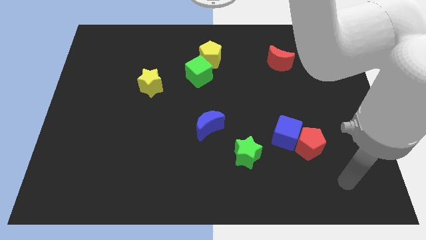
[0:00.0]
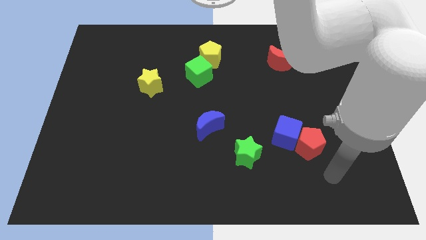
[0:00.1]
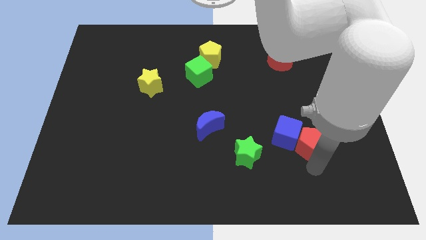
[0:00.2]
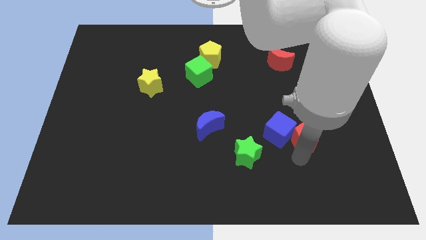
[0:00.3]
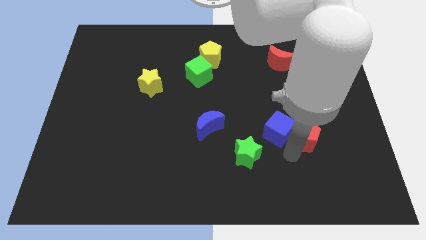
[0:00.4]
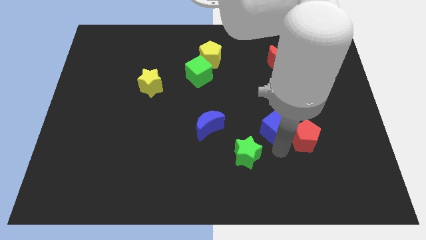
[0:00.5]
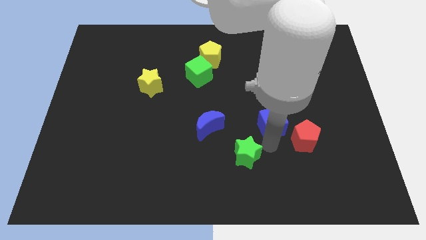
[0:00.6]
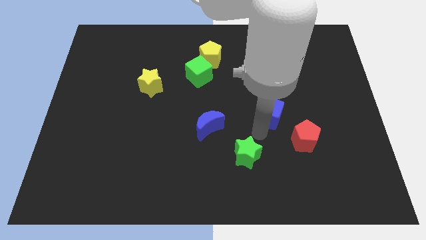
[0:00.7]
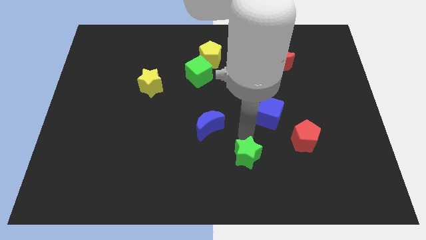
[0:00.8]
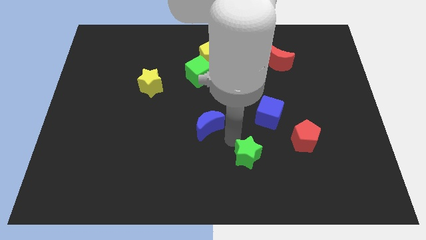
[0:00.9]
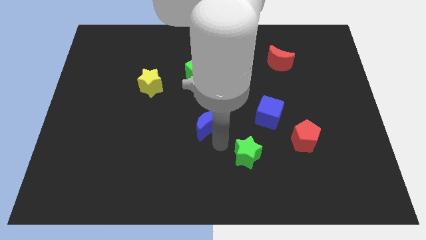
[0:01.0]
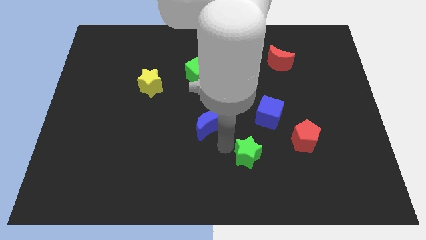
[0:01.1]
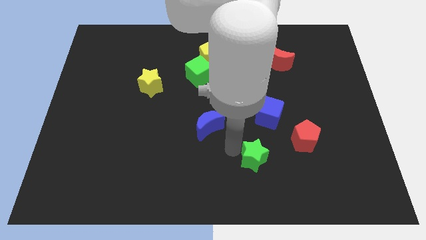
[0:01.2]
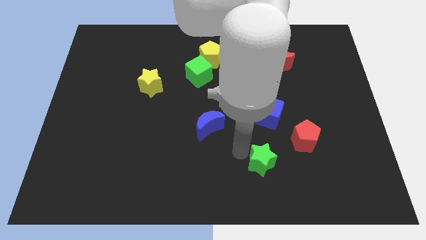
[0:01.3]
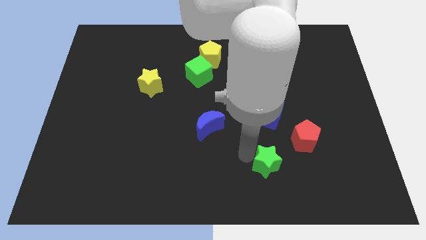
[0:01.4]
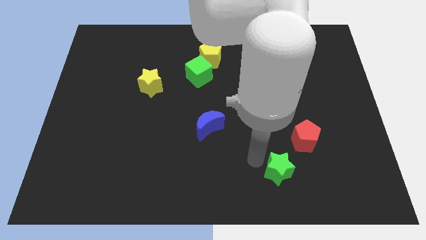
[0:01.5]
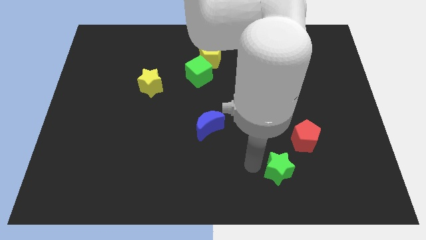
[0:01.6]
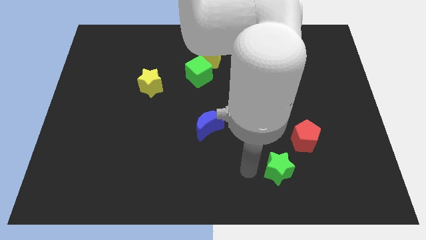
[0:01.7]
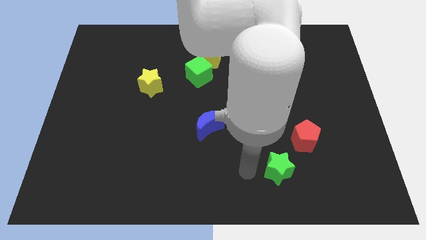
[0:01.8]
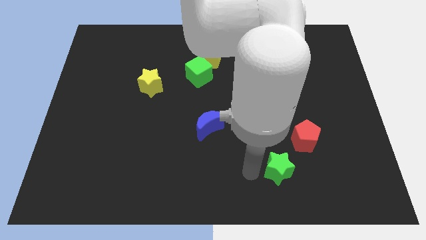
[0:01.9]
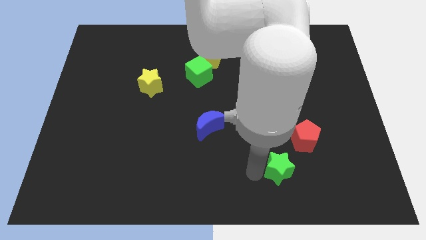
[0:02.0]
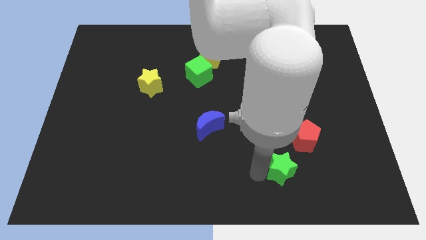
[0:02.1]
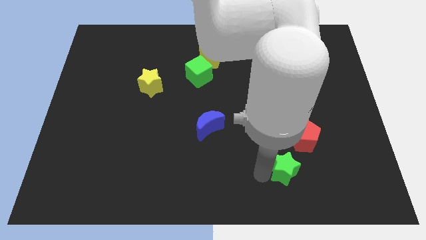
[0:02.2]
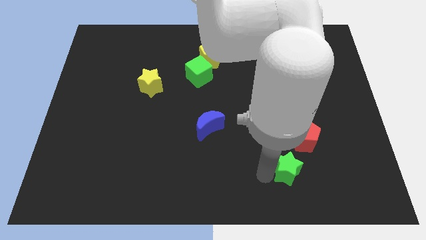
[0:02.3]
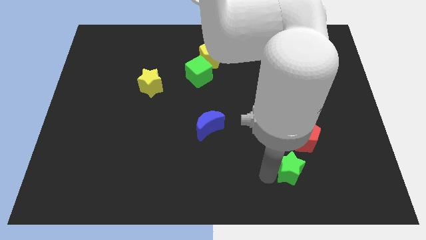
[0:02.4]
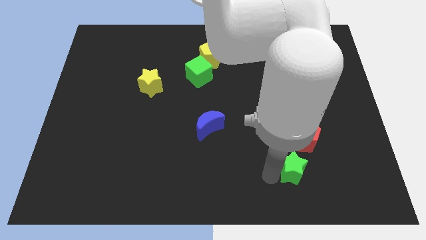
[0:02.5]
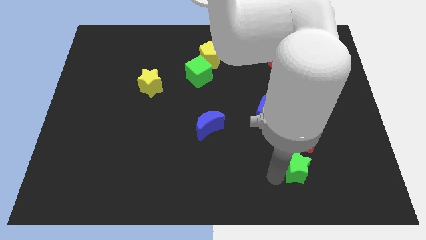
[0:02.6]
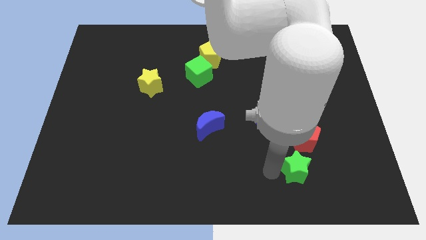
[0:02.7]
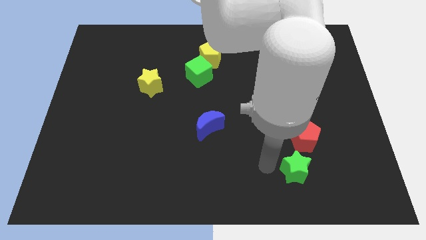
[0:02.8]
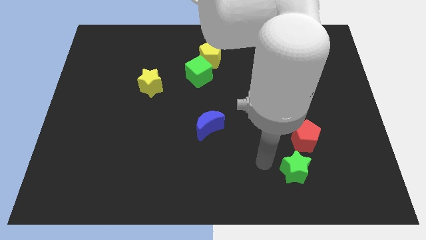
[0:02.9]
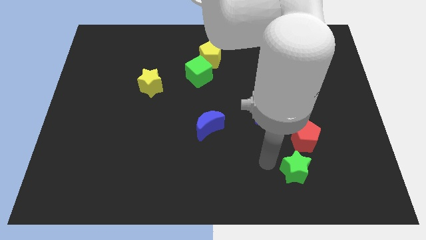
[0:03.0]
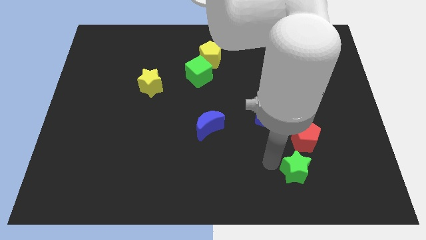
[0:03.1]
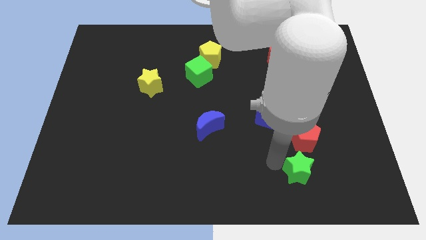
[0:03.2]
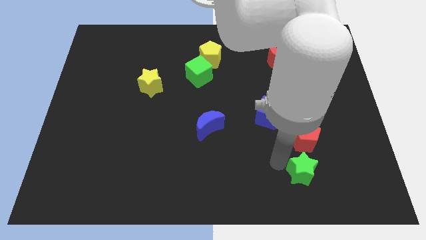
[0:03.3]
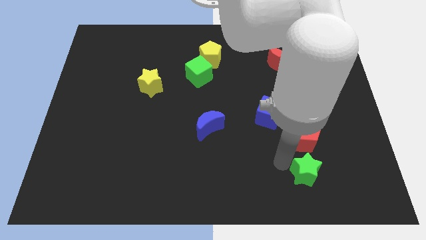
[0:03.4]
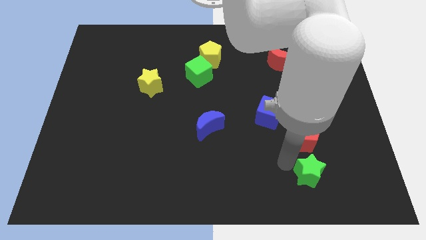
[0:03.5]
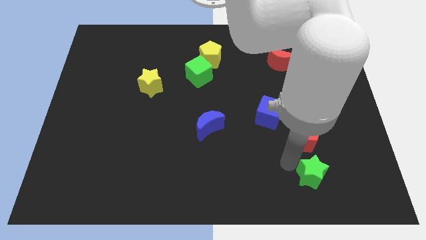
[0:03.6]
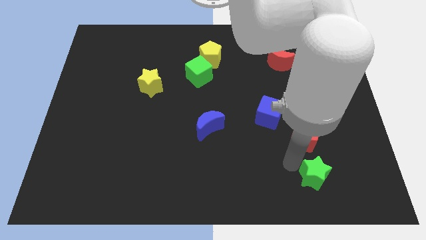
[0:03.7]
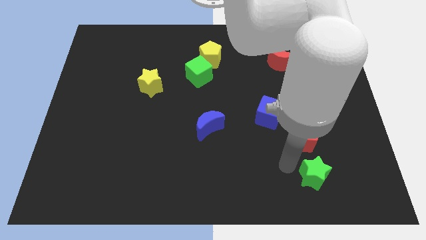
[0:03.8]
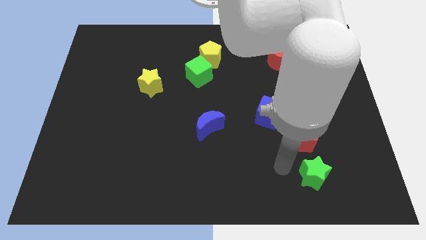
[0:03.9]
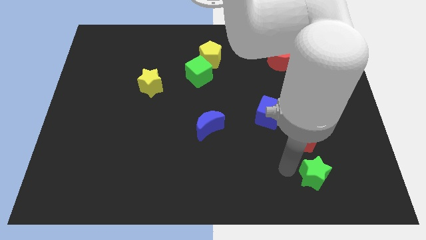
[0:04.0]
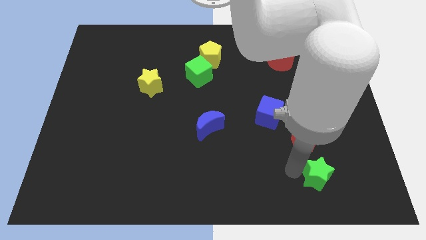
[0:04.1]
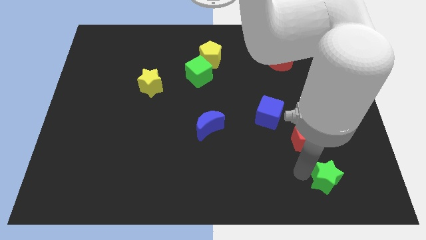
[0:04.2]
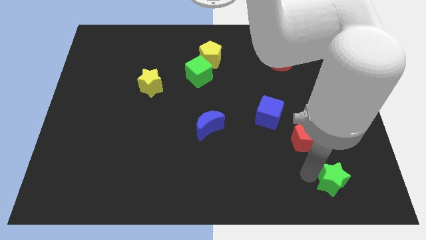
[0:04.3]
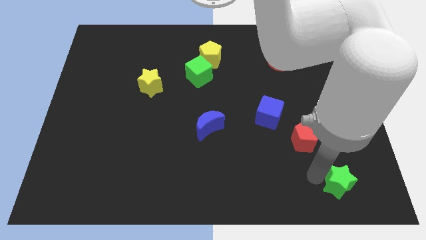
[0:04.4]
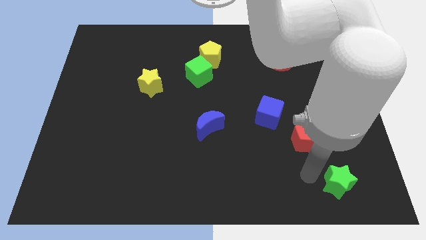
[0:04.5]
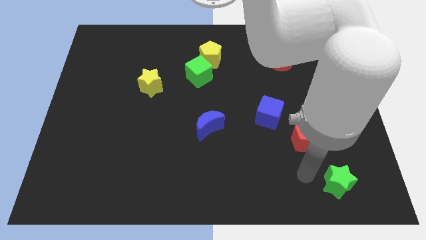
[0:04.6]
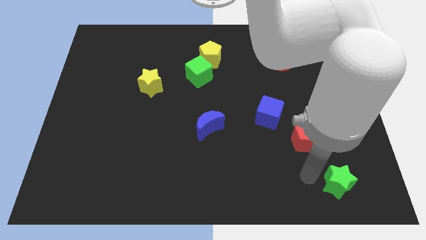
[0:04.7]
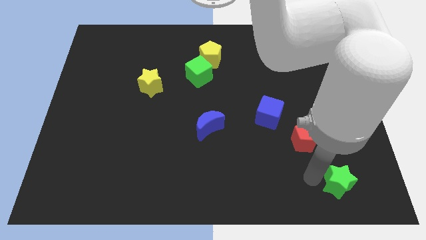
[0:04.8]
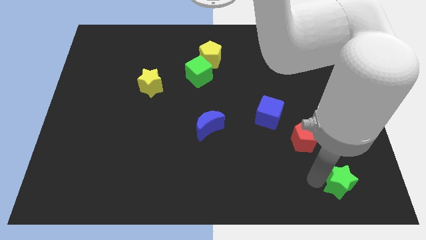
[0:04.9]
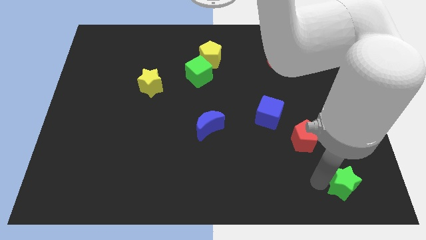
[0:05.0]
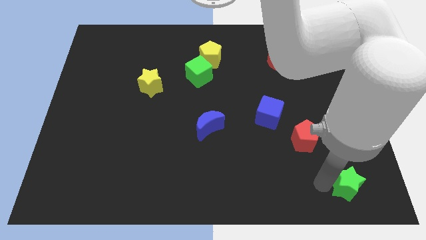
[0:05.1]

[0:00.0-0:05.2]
move the green star to the lower right corner

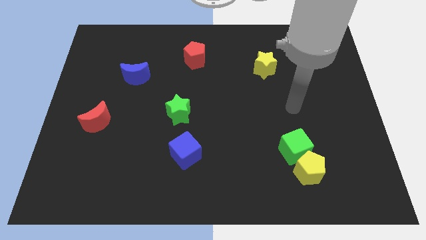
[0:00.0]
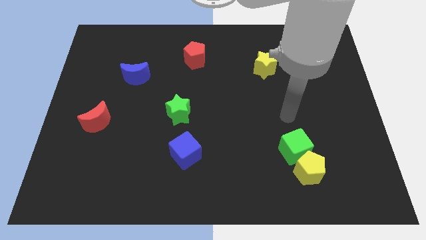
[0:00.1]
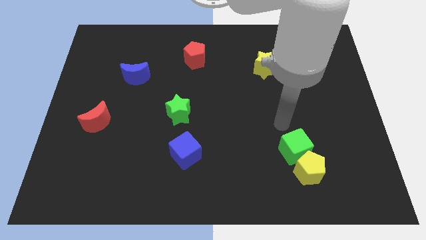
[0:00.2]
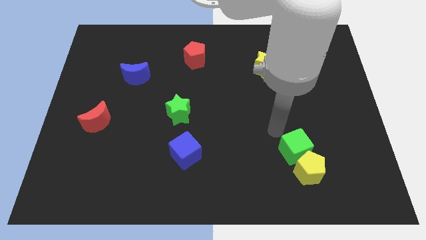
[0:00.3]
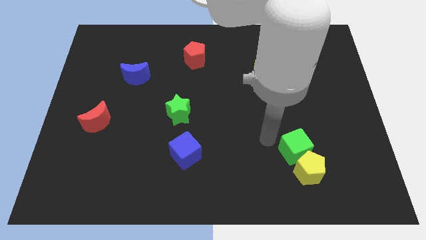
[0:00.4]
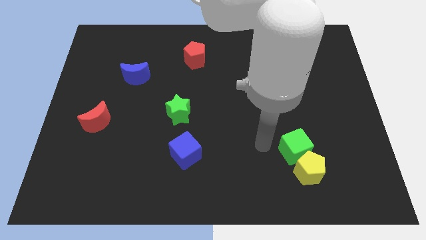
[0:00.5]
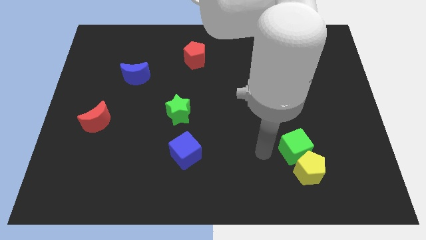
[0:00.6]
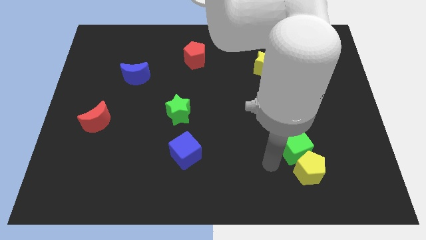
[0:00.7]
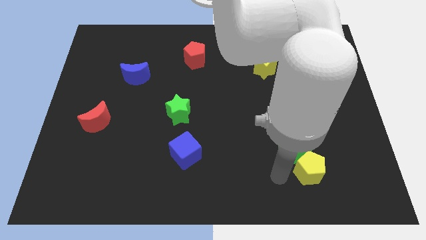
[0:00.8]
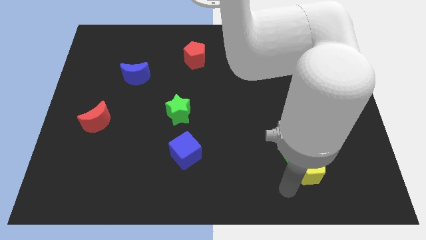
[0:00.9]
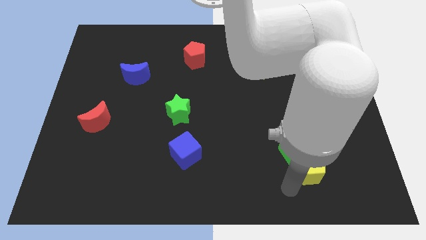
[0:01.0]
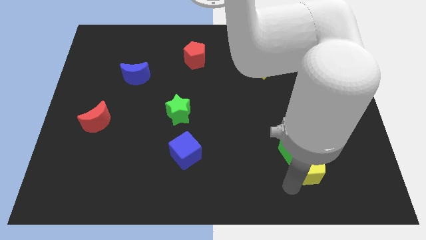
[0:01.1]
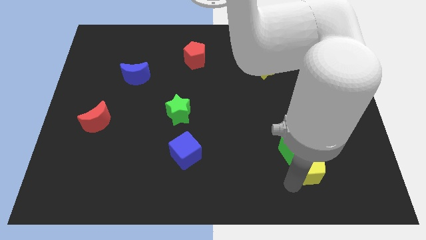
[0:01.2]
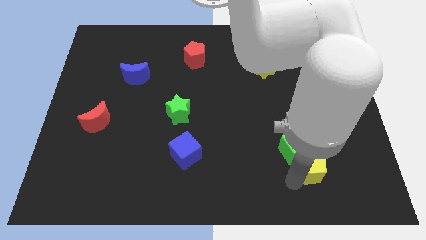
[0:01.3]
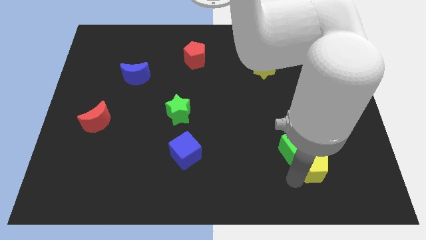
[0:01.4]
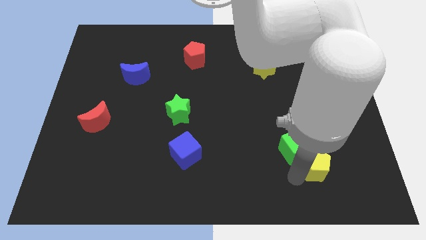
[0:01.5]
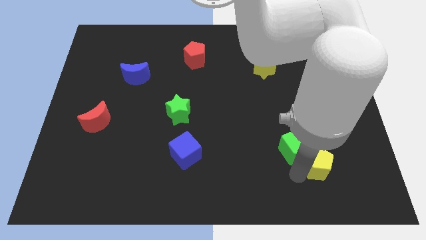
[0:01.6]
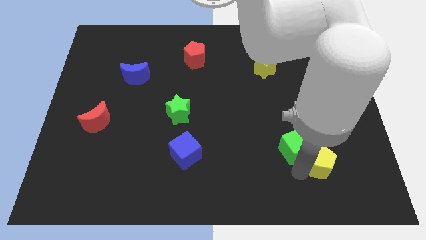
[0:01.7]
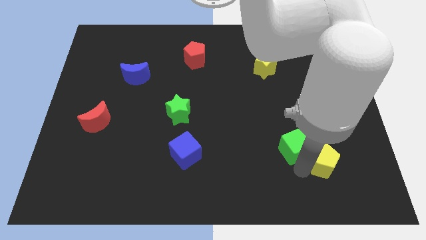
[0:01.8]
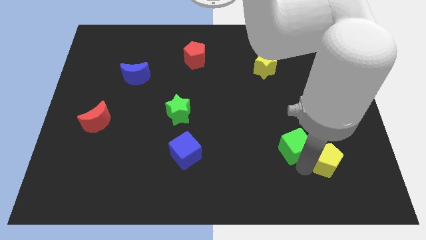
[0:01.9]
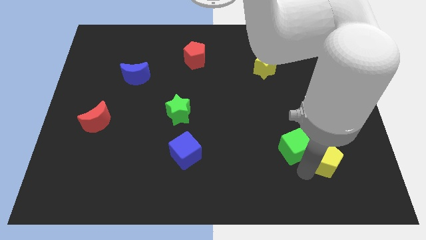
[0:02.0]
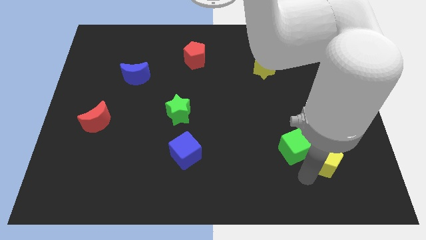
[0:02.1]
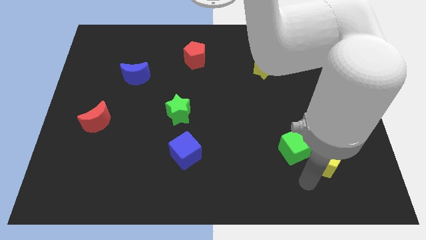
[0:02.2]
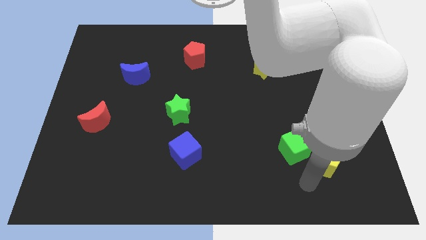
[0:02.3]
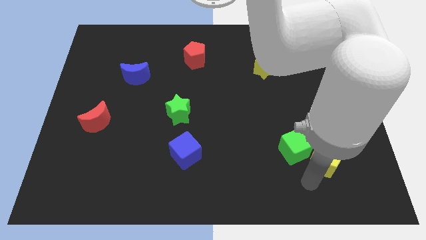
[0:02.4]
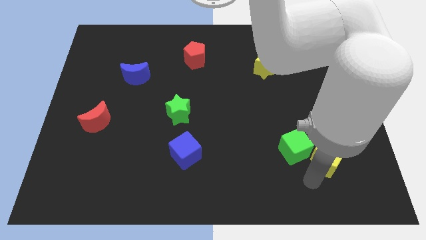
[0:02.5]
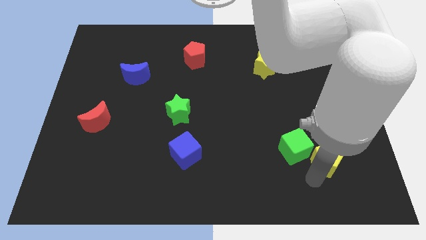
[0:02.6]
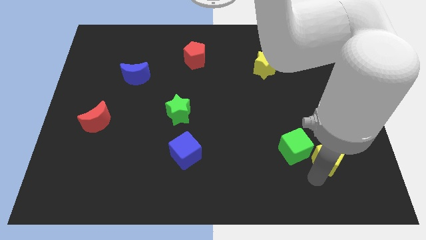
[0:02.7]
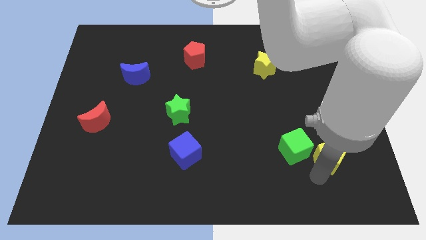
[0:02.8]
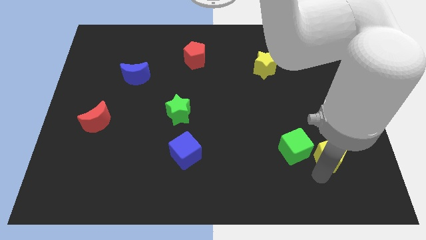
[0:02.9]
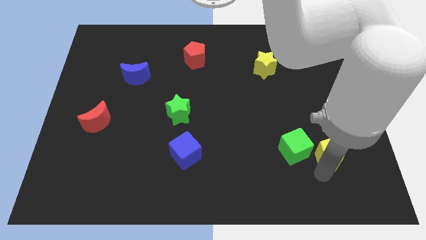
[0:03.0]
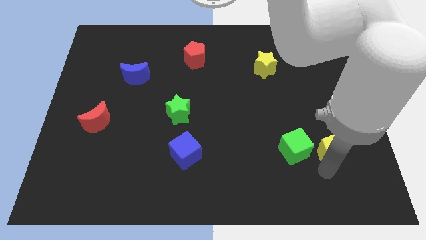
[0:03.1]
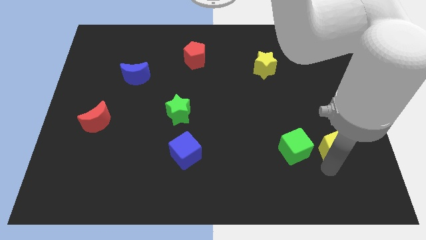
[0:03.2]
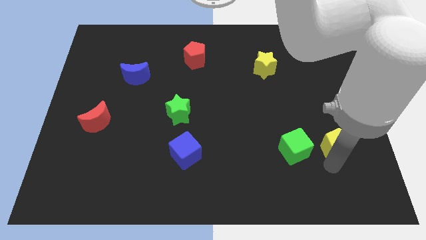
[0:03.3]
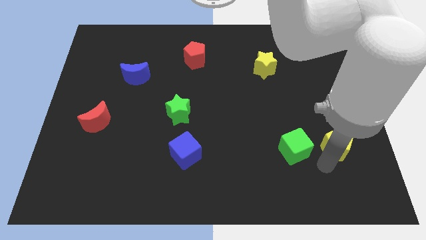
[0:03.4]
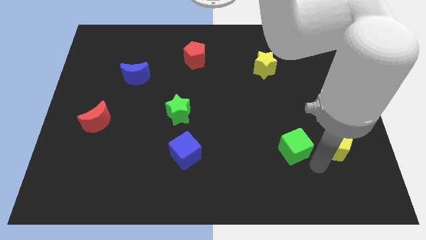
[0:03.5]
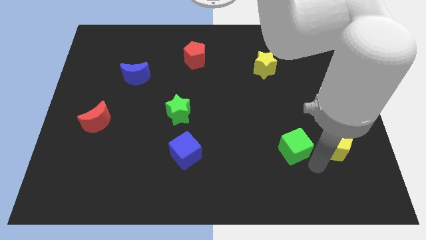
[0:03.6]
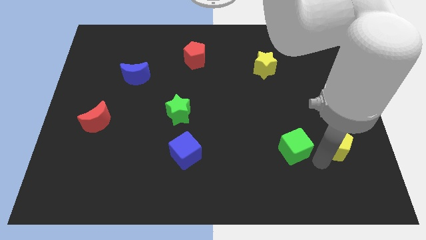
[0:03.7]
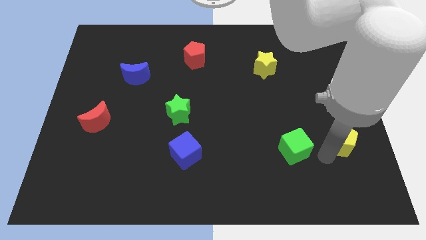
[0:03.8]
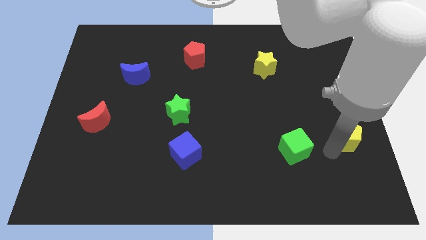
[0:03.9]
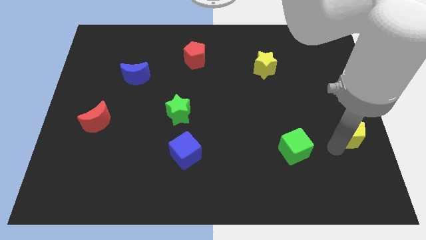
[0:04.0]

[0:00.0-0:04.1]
push the yellow pentagon to the right side
